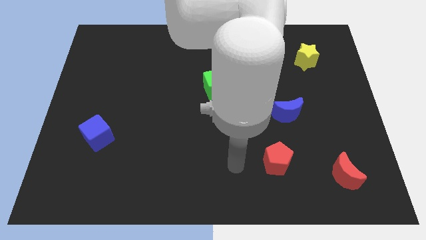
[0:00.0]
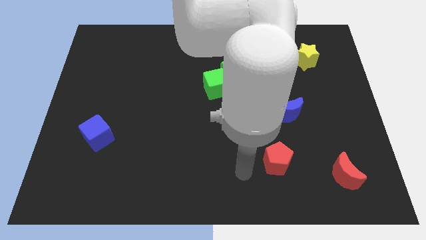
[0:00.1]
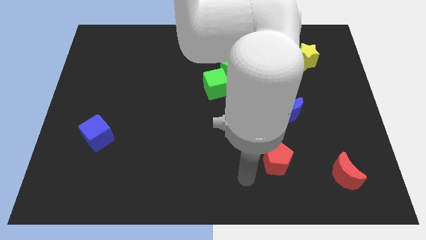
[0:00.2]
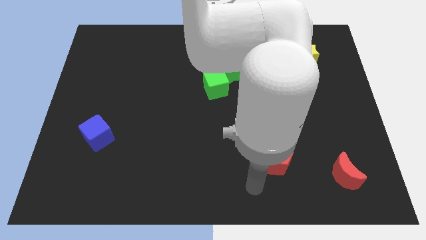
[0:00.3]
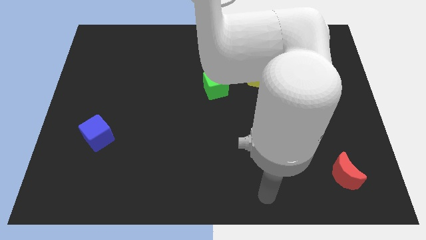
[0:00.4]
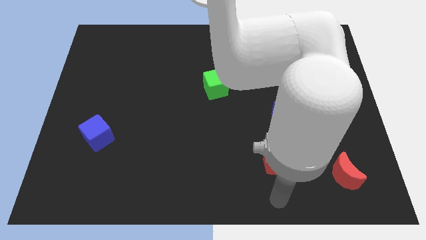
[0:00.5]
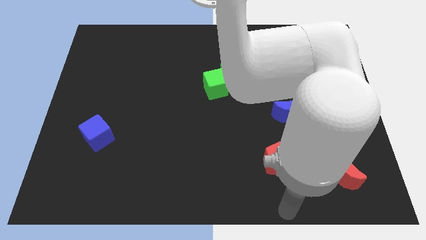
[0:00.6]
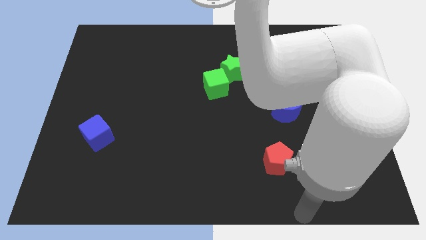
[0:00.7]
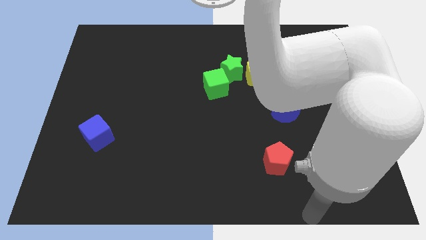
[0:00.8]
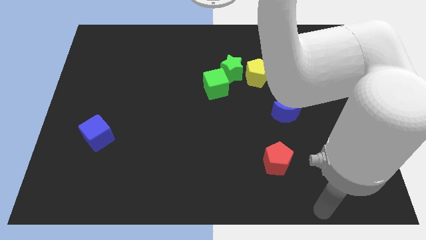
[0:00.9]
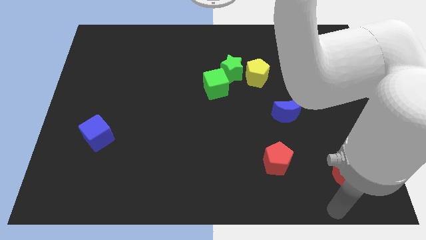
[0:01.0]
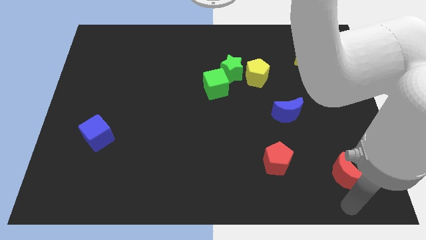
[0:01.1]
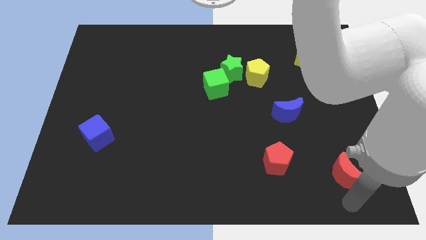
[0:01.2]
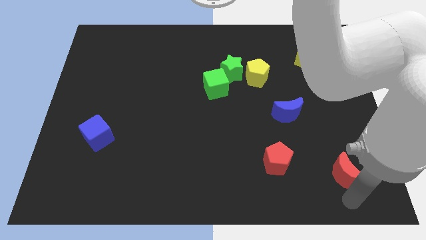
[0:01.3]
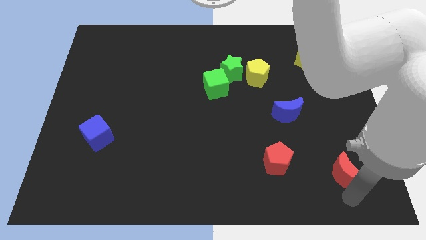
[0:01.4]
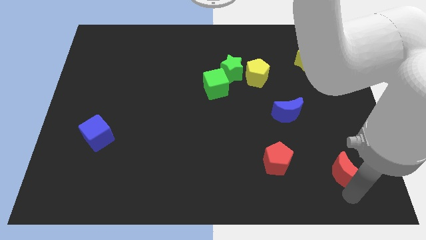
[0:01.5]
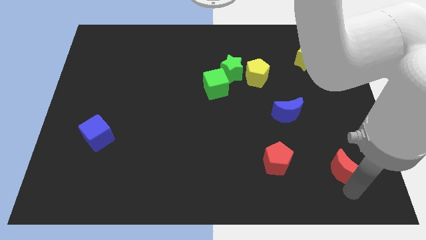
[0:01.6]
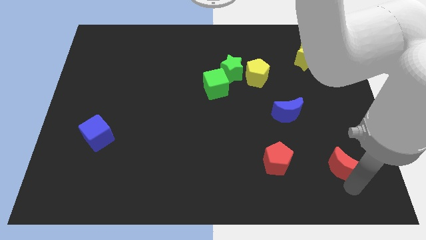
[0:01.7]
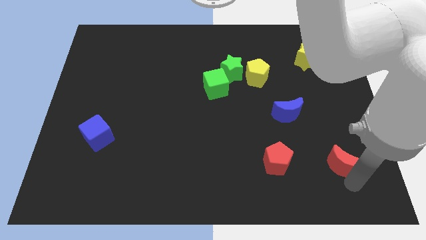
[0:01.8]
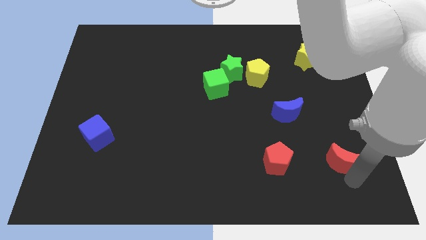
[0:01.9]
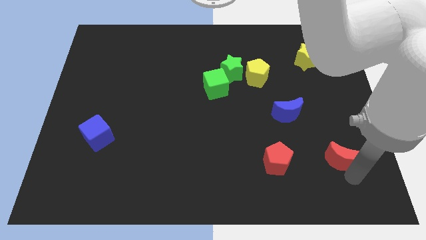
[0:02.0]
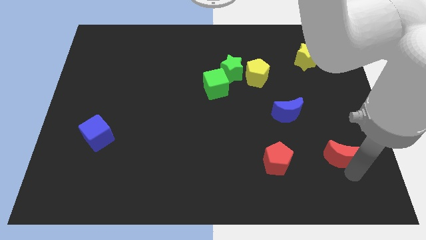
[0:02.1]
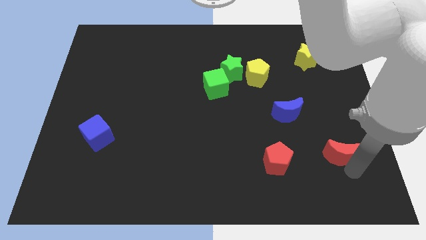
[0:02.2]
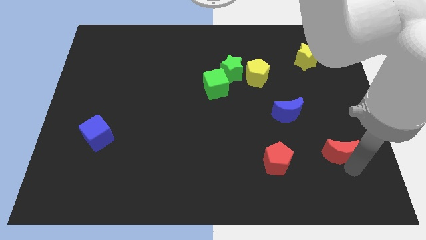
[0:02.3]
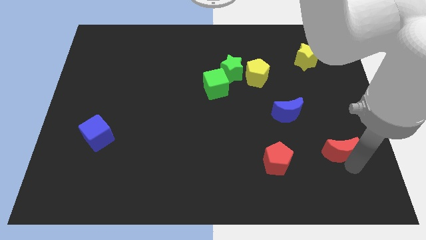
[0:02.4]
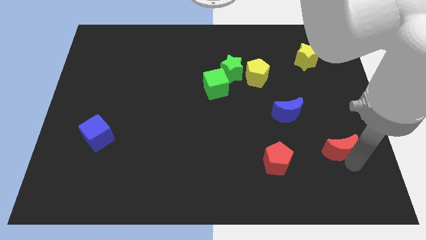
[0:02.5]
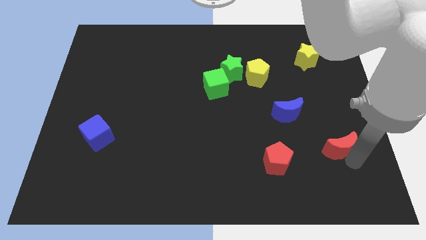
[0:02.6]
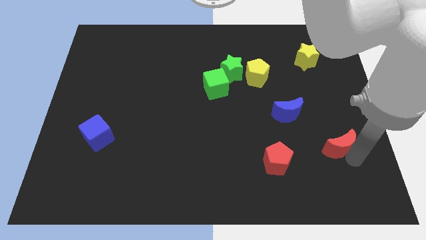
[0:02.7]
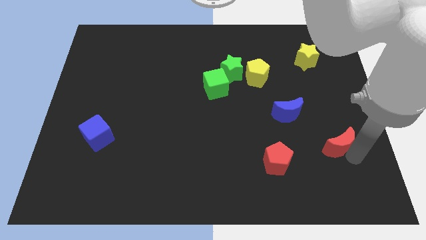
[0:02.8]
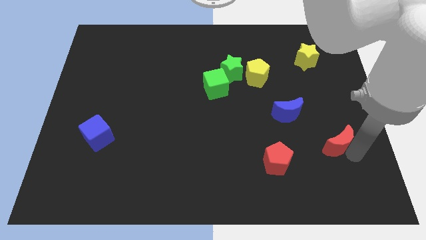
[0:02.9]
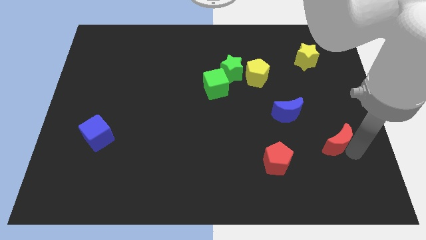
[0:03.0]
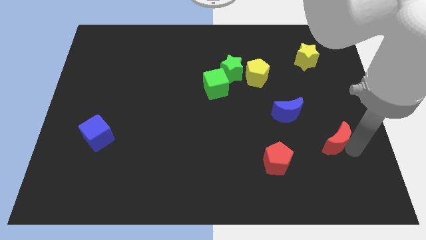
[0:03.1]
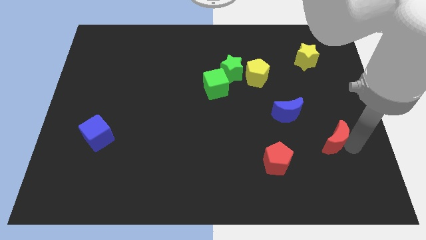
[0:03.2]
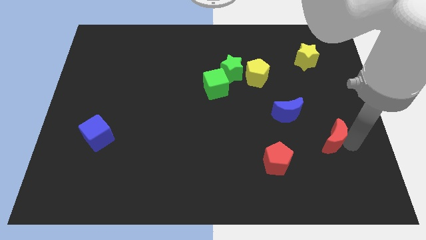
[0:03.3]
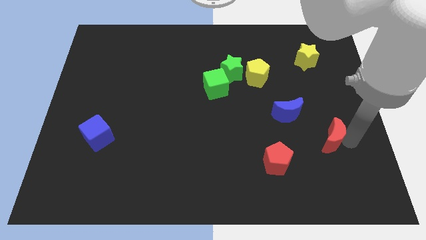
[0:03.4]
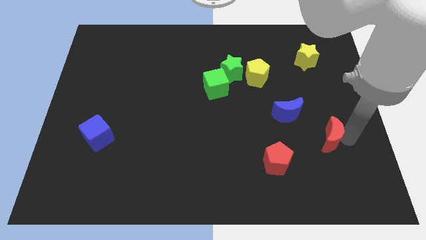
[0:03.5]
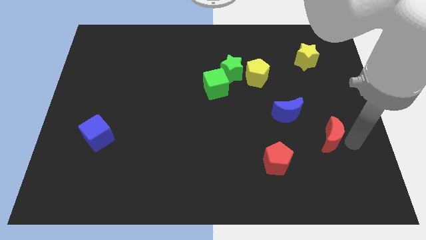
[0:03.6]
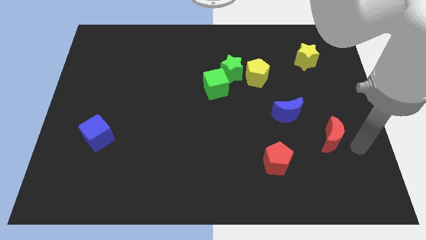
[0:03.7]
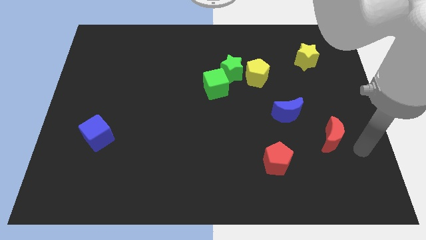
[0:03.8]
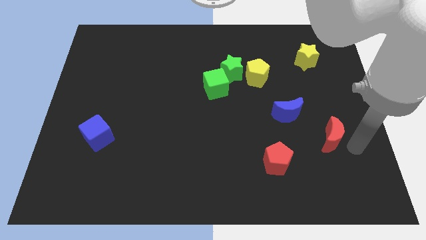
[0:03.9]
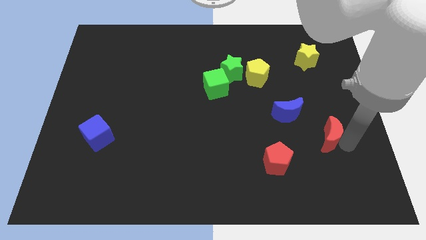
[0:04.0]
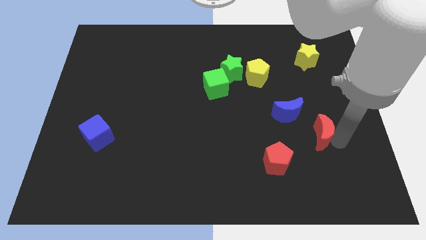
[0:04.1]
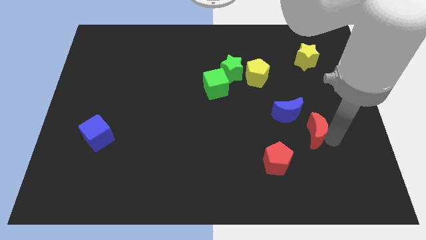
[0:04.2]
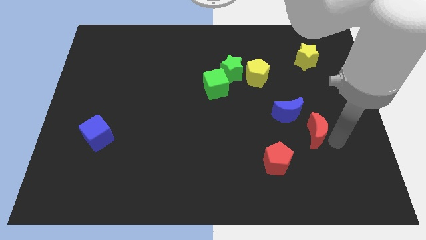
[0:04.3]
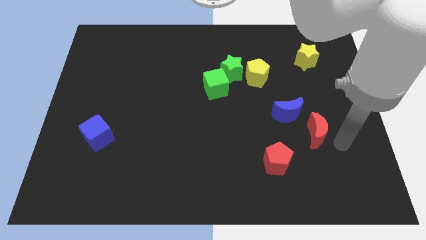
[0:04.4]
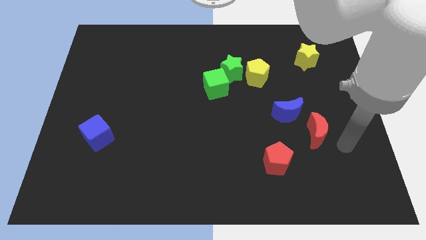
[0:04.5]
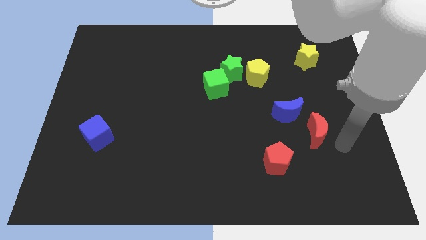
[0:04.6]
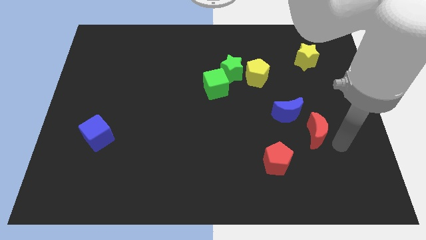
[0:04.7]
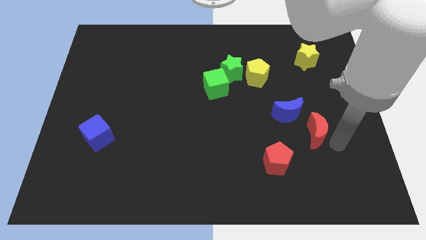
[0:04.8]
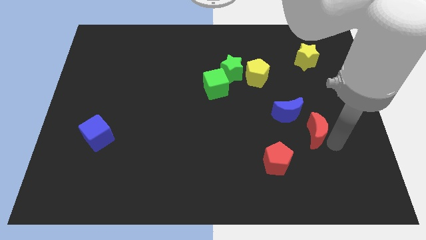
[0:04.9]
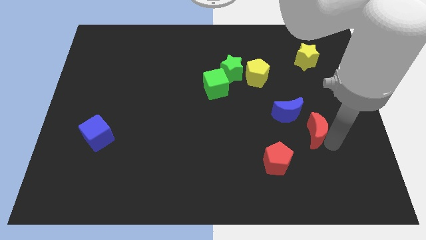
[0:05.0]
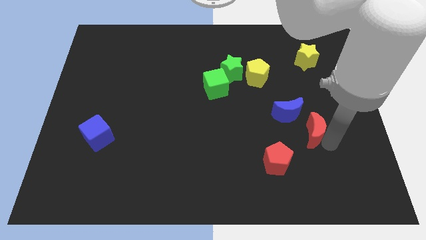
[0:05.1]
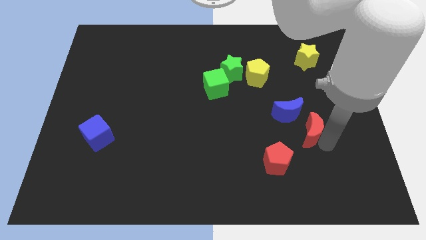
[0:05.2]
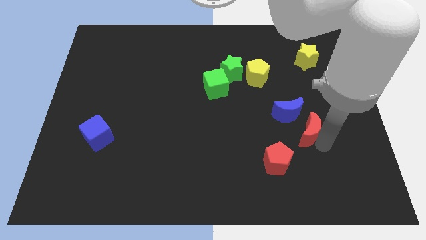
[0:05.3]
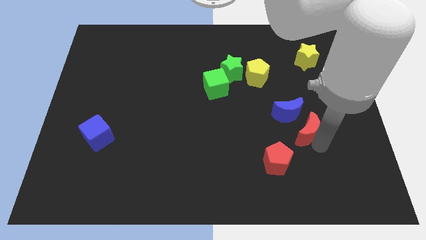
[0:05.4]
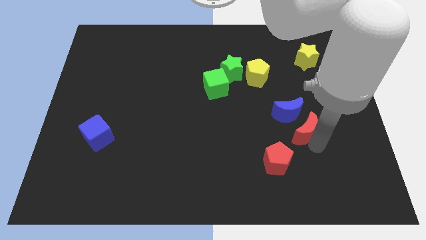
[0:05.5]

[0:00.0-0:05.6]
move the red moon towards the blue moon

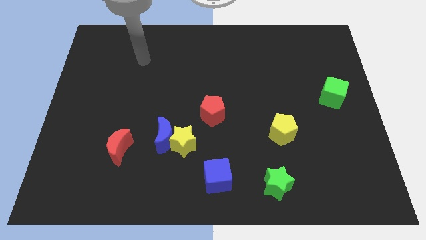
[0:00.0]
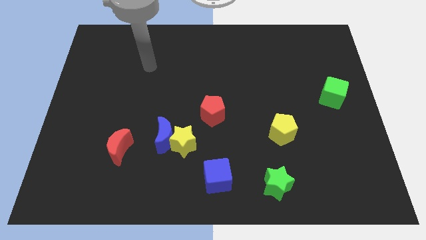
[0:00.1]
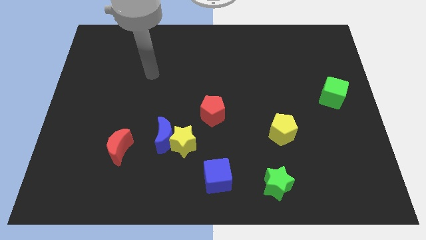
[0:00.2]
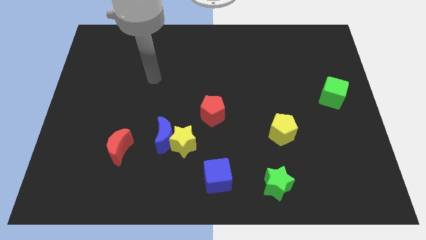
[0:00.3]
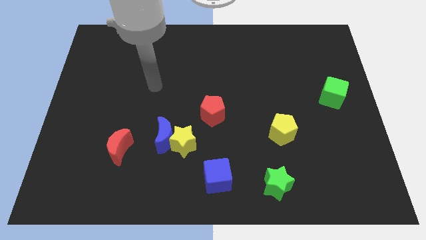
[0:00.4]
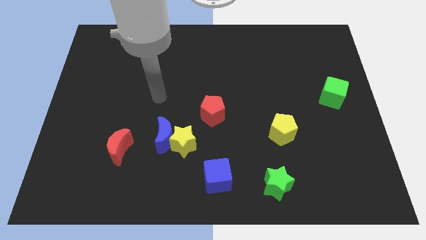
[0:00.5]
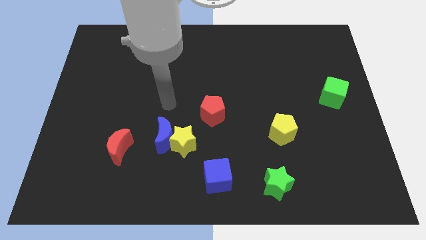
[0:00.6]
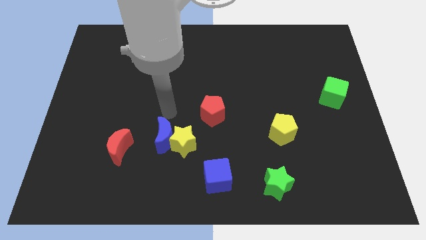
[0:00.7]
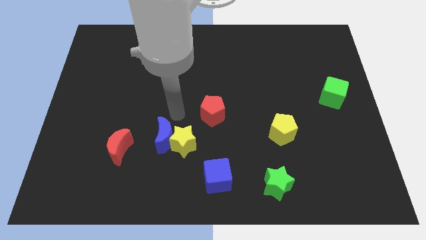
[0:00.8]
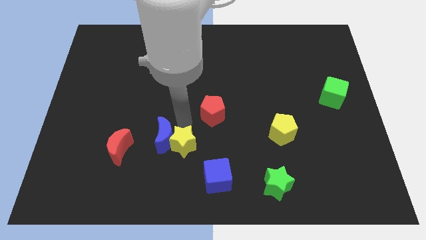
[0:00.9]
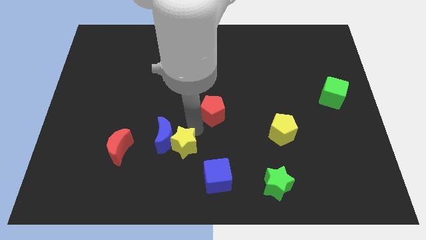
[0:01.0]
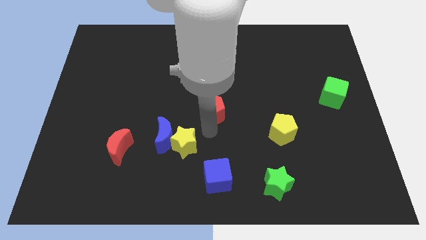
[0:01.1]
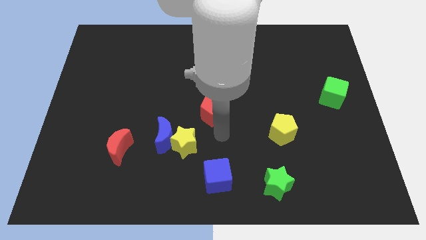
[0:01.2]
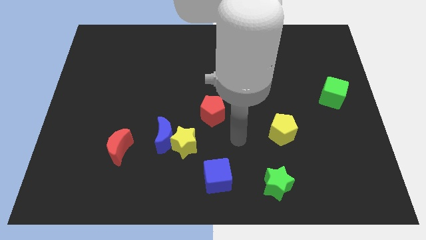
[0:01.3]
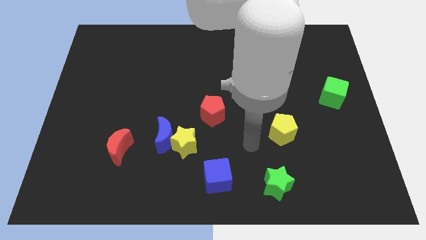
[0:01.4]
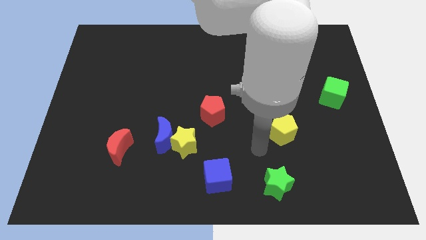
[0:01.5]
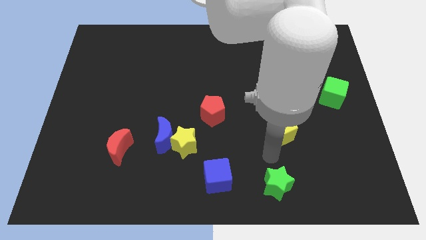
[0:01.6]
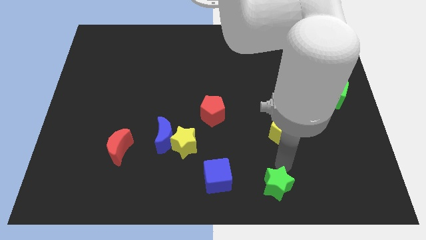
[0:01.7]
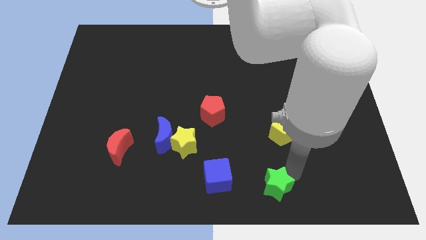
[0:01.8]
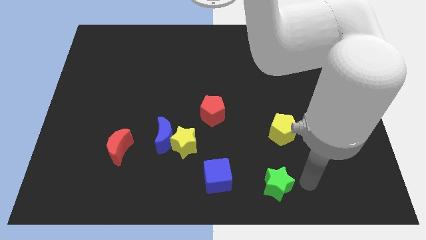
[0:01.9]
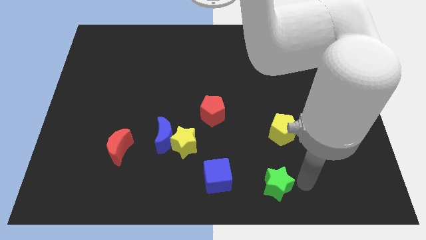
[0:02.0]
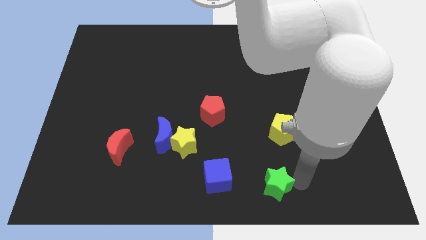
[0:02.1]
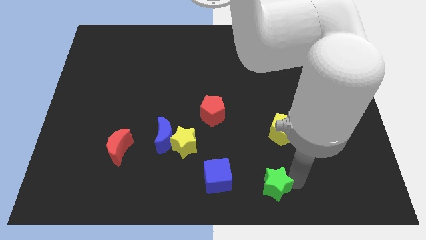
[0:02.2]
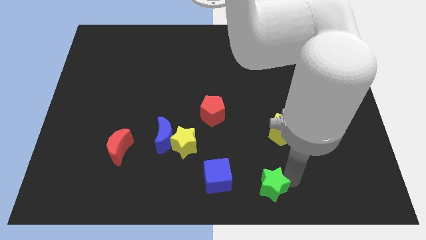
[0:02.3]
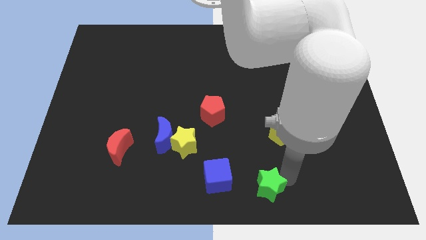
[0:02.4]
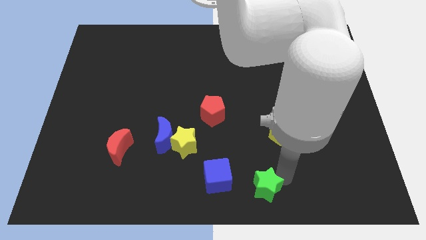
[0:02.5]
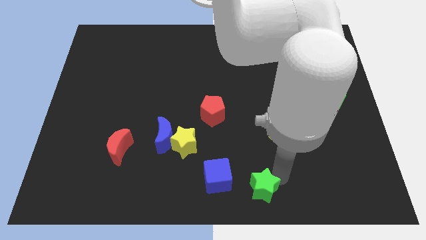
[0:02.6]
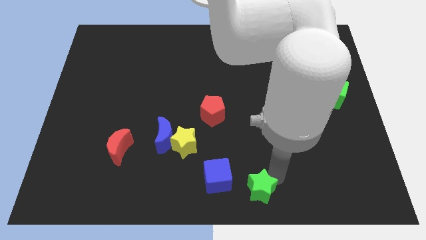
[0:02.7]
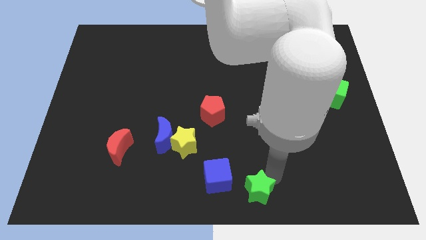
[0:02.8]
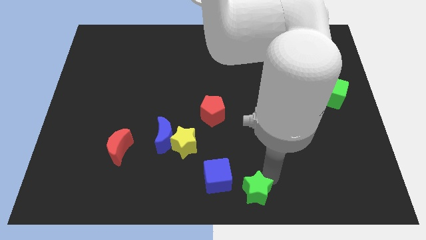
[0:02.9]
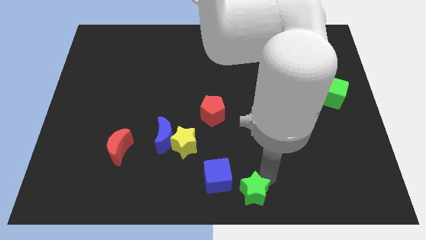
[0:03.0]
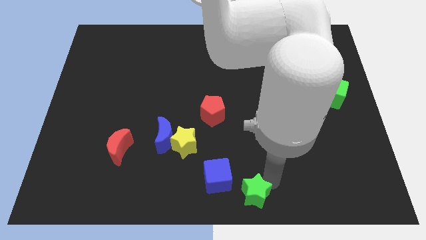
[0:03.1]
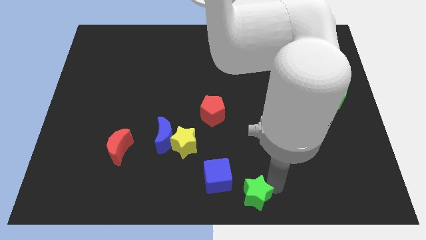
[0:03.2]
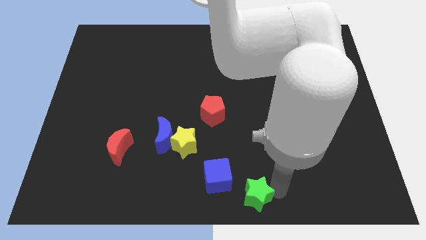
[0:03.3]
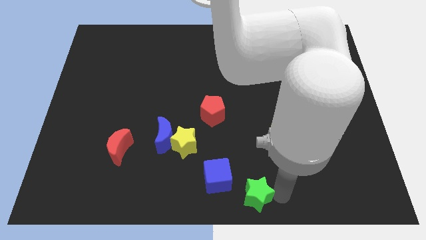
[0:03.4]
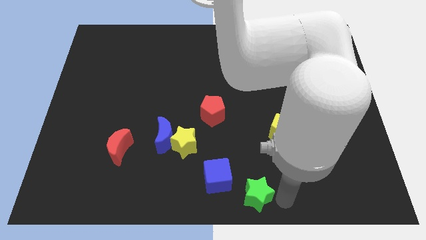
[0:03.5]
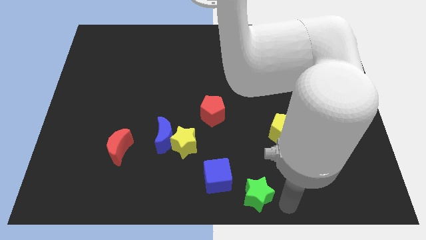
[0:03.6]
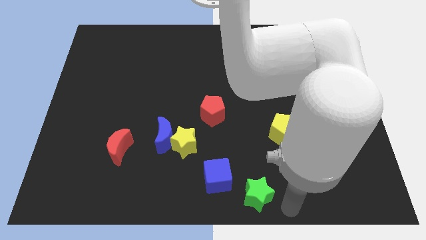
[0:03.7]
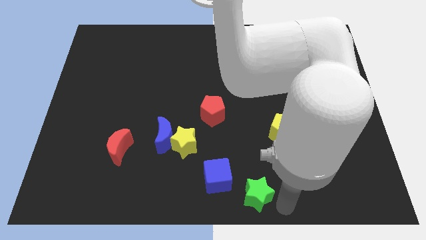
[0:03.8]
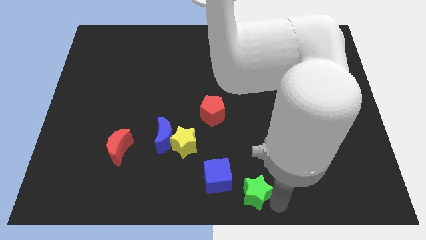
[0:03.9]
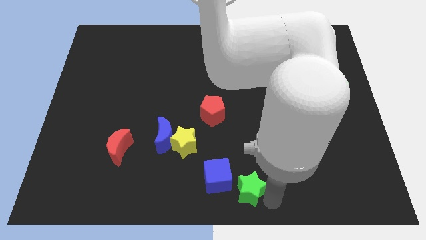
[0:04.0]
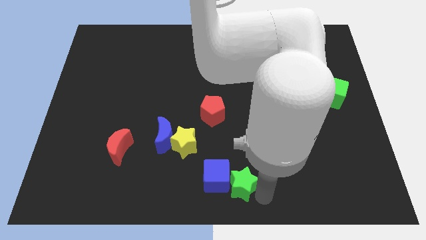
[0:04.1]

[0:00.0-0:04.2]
slide the green star close to the blue cube
